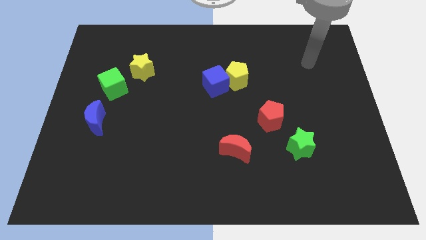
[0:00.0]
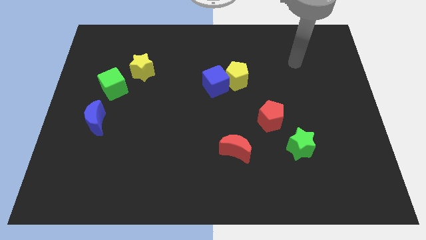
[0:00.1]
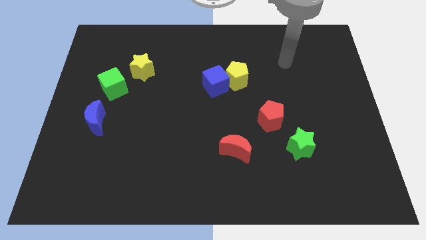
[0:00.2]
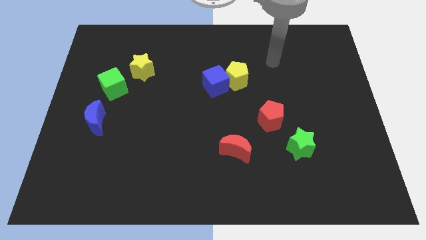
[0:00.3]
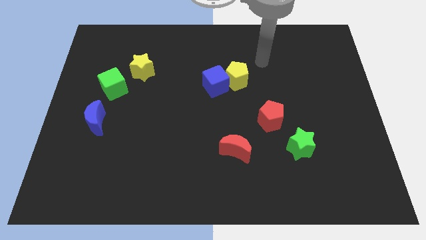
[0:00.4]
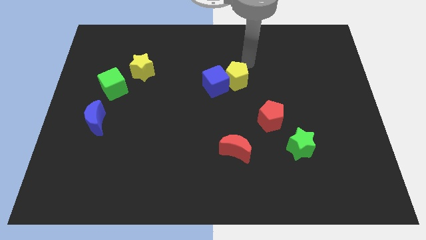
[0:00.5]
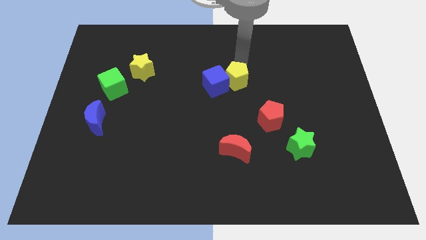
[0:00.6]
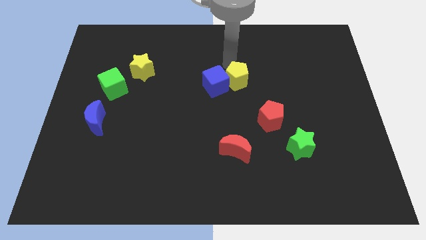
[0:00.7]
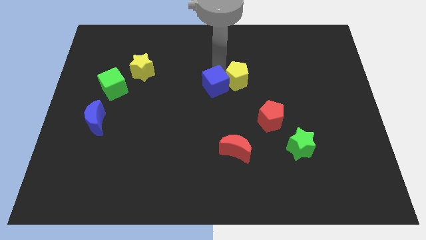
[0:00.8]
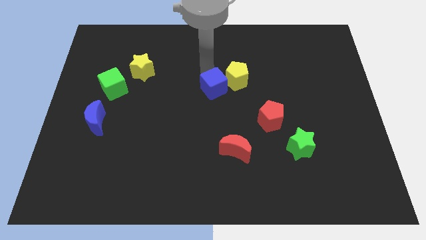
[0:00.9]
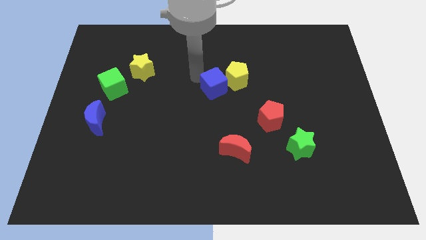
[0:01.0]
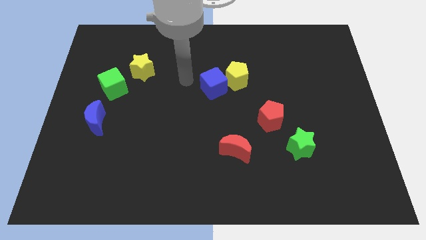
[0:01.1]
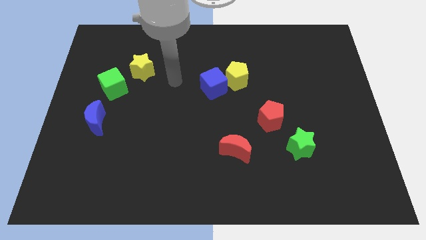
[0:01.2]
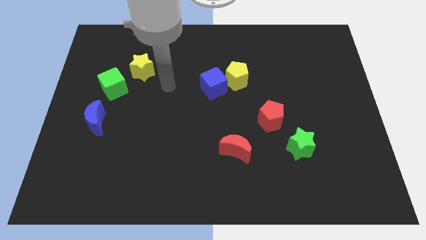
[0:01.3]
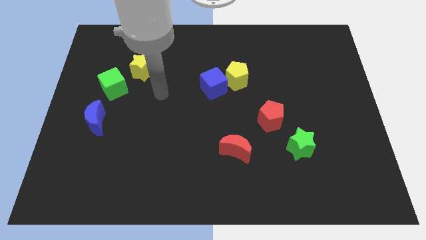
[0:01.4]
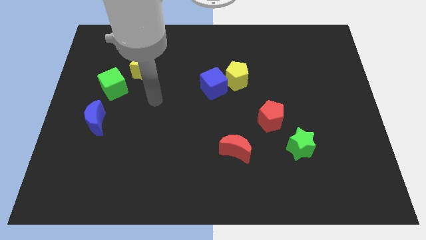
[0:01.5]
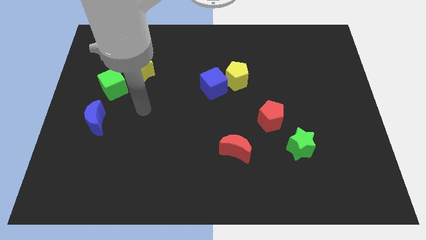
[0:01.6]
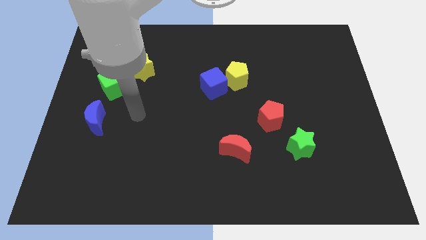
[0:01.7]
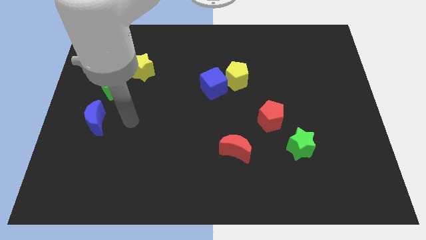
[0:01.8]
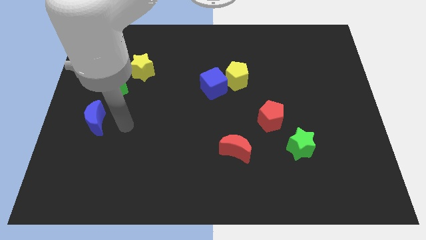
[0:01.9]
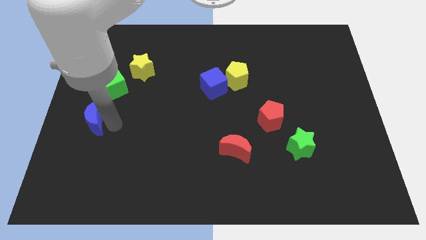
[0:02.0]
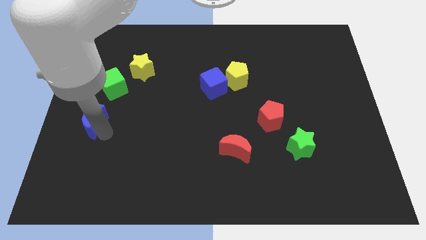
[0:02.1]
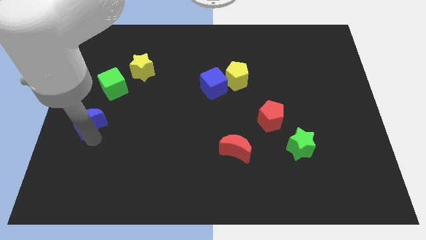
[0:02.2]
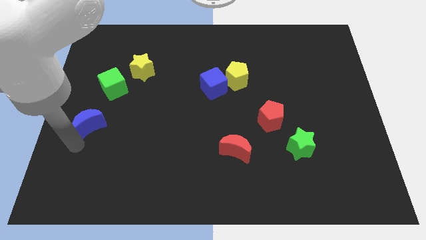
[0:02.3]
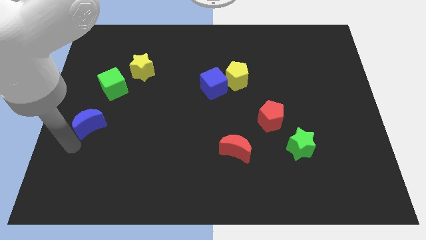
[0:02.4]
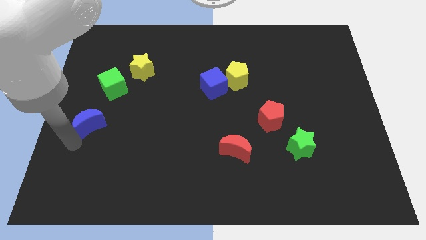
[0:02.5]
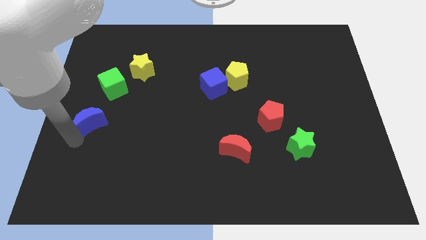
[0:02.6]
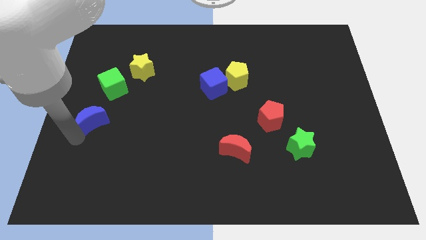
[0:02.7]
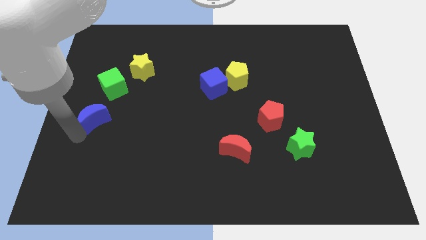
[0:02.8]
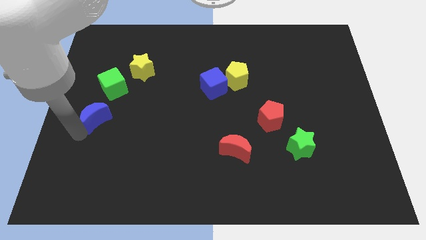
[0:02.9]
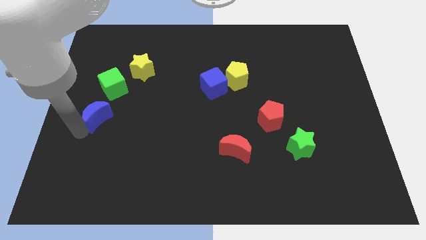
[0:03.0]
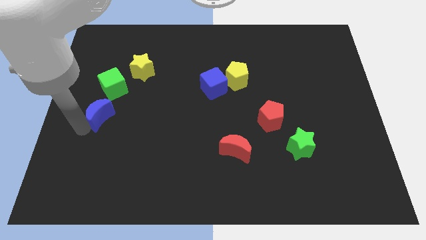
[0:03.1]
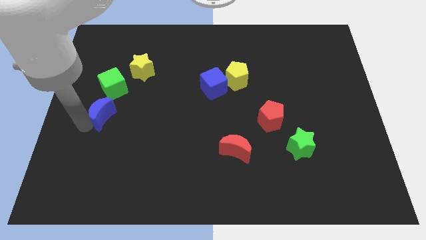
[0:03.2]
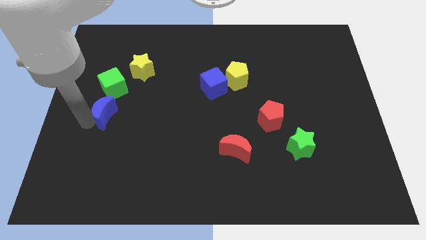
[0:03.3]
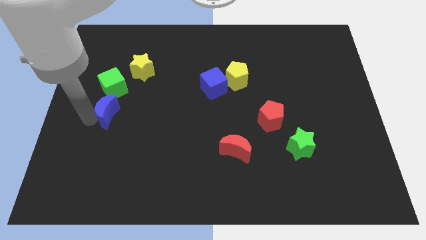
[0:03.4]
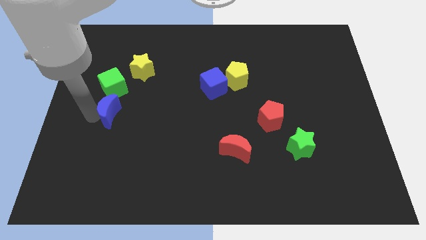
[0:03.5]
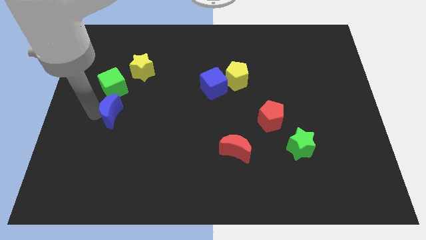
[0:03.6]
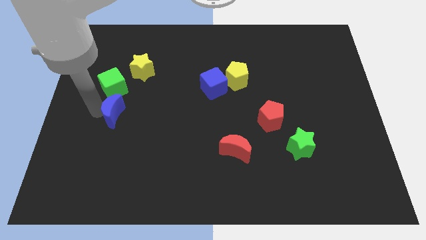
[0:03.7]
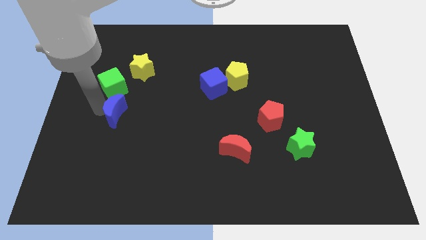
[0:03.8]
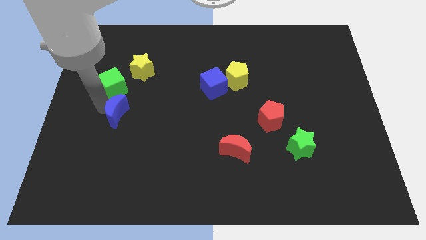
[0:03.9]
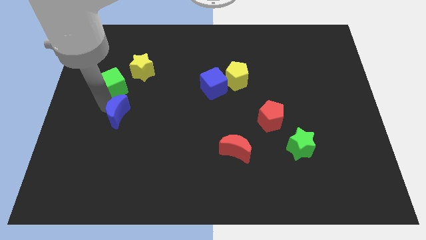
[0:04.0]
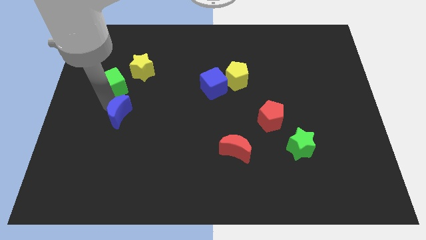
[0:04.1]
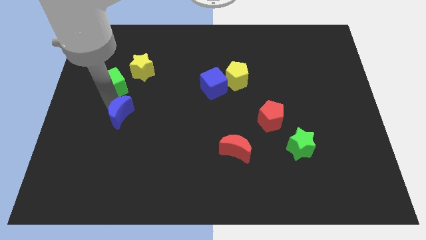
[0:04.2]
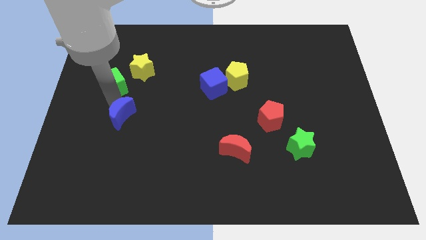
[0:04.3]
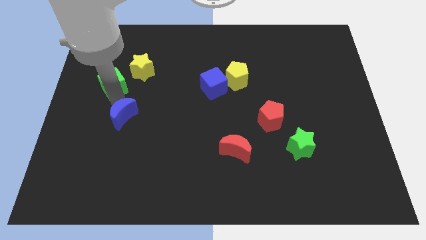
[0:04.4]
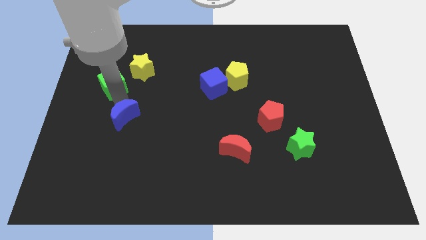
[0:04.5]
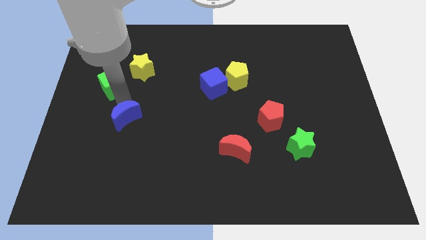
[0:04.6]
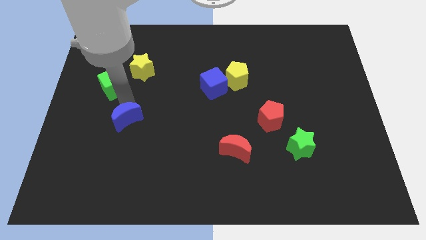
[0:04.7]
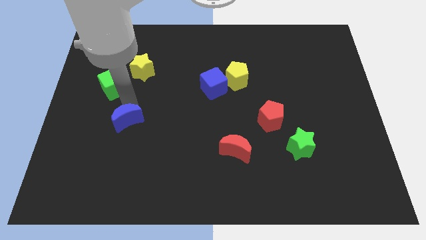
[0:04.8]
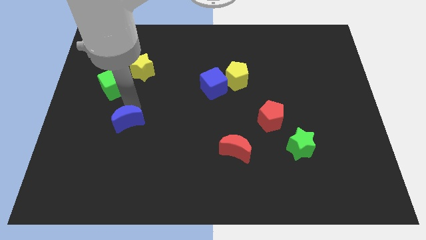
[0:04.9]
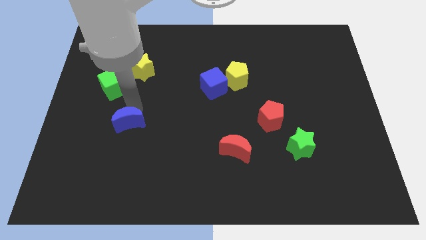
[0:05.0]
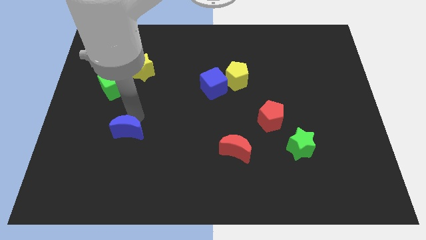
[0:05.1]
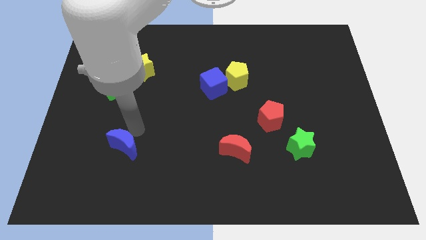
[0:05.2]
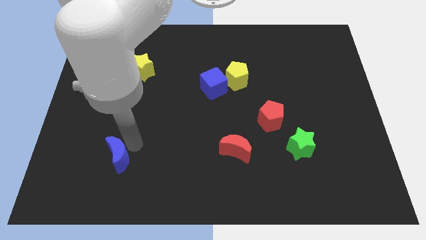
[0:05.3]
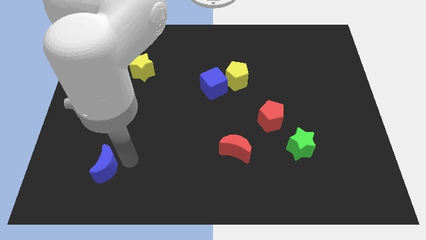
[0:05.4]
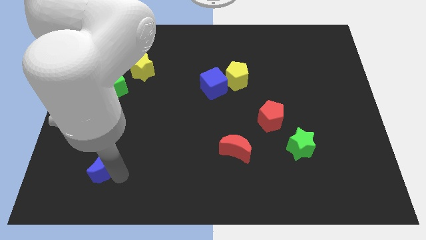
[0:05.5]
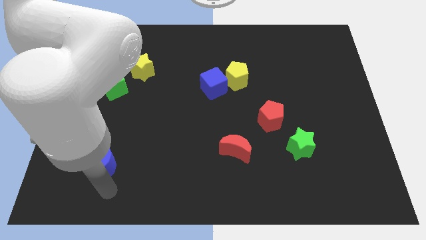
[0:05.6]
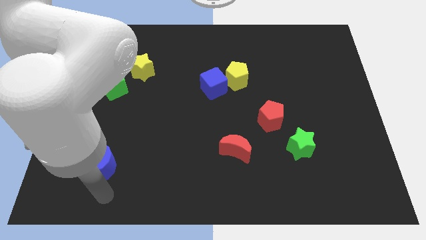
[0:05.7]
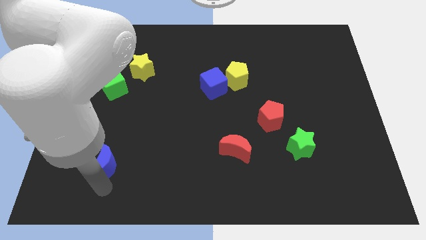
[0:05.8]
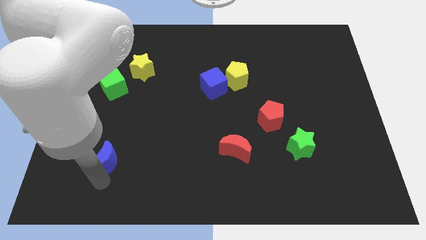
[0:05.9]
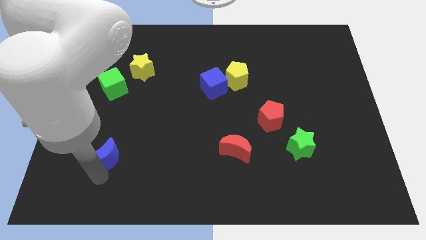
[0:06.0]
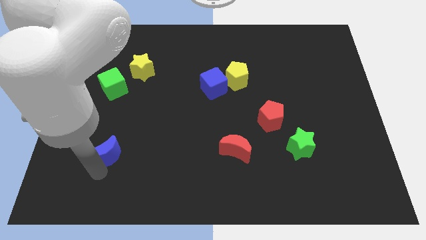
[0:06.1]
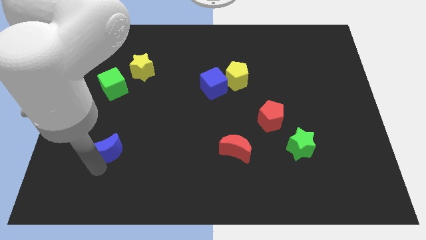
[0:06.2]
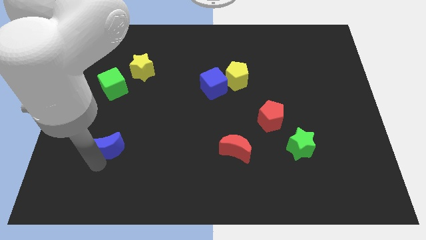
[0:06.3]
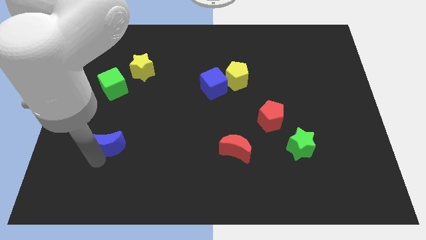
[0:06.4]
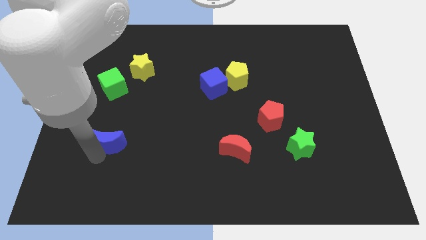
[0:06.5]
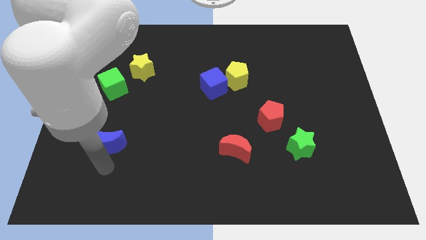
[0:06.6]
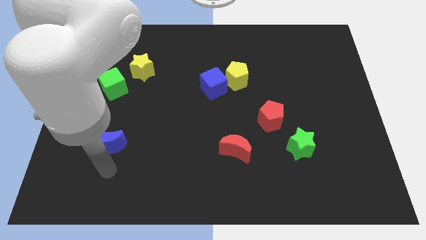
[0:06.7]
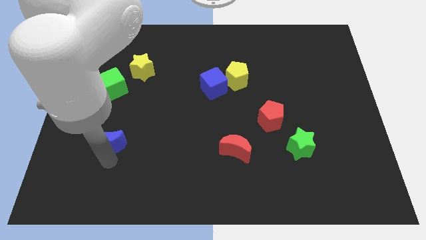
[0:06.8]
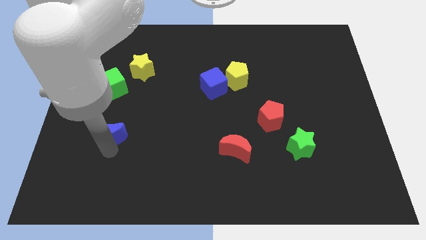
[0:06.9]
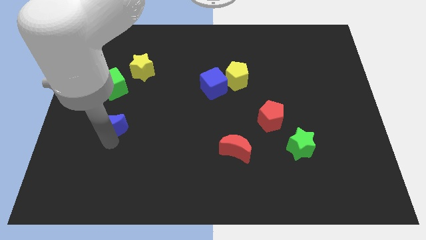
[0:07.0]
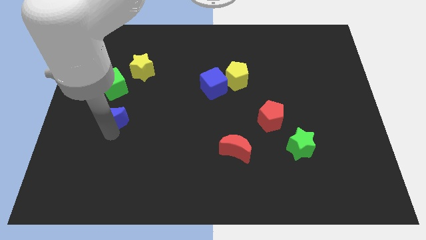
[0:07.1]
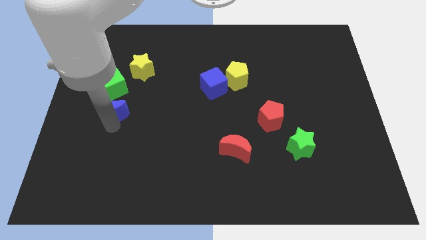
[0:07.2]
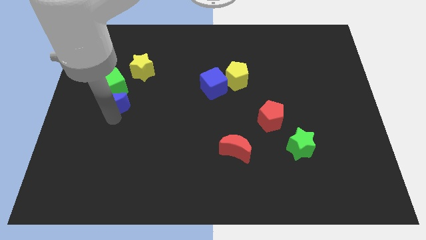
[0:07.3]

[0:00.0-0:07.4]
slide the blue moon towards the green cube

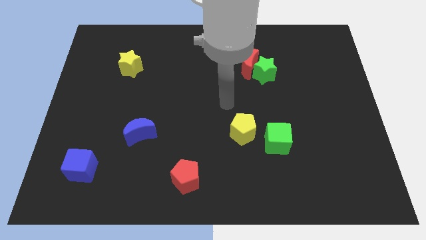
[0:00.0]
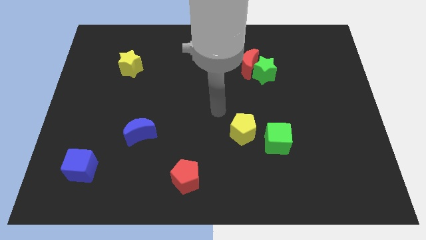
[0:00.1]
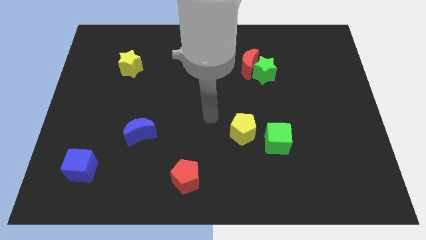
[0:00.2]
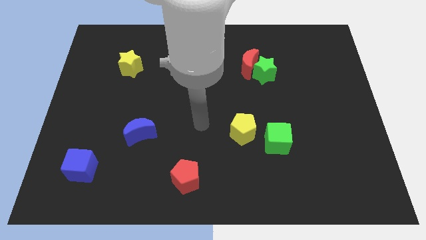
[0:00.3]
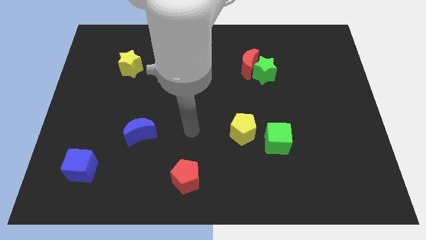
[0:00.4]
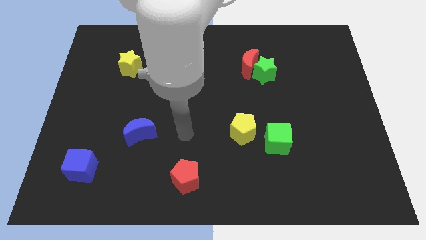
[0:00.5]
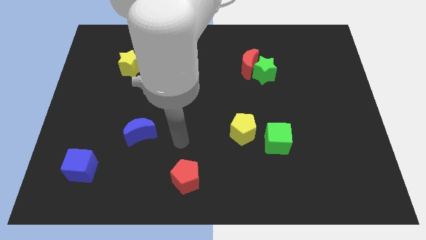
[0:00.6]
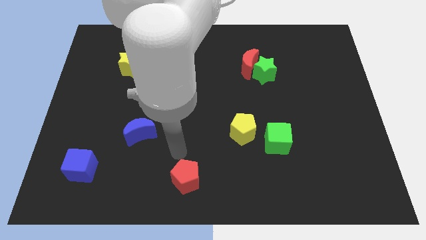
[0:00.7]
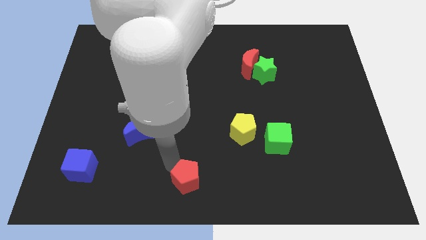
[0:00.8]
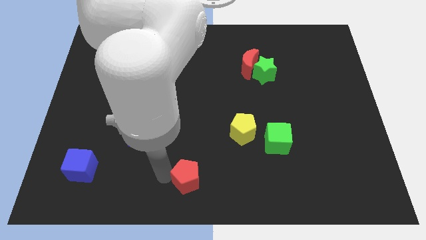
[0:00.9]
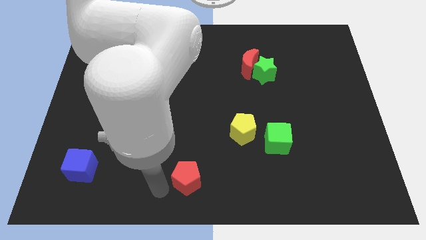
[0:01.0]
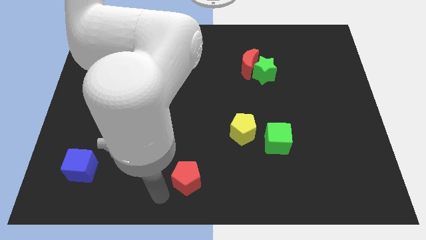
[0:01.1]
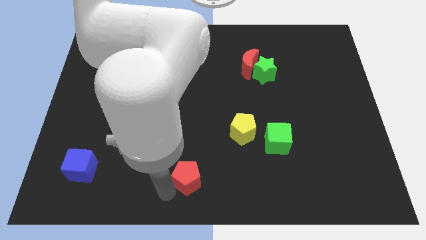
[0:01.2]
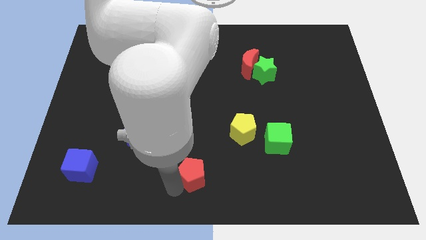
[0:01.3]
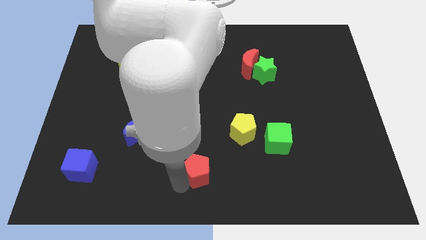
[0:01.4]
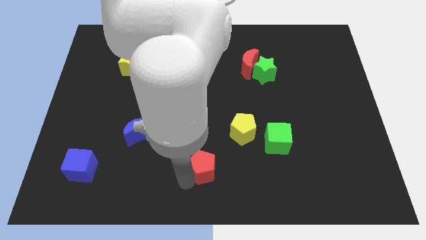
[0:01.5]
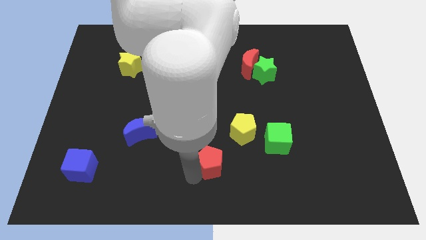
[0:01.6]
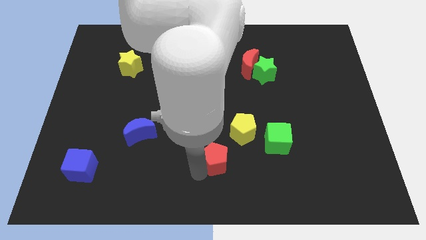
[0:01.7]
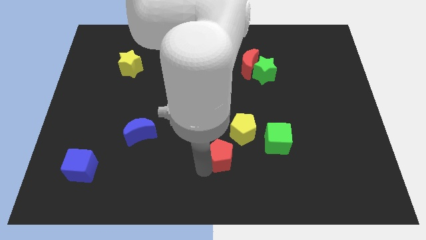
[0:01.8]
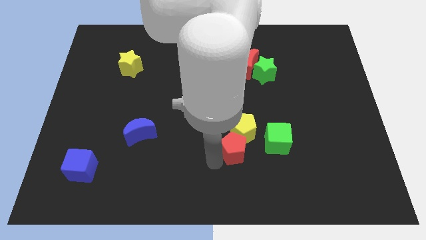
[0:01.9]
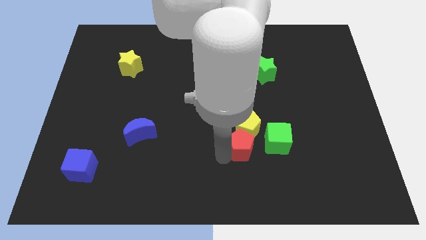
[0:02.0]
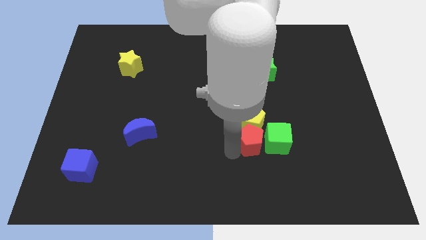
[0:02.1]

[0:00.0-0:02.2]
slide the red pentagon close to the green cube
